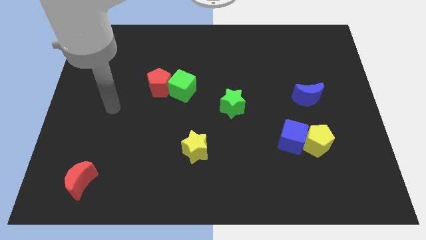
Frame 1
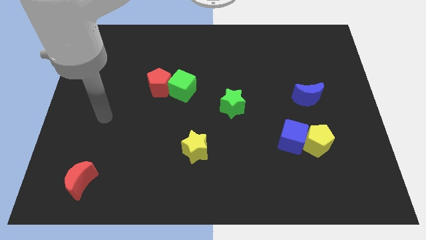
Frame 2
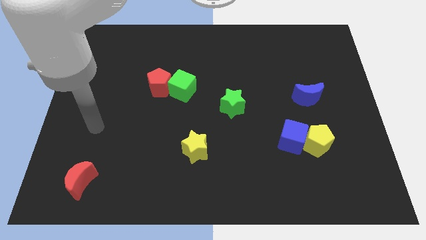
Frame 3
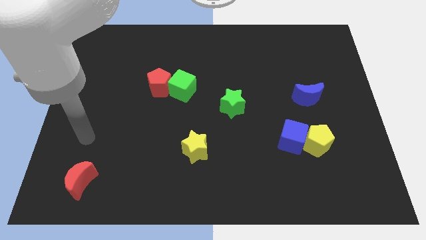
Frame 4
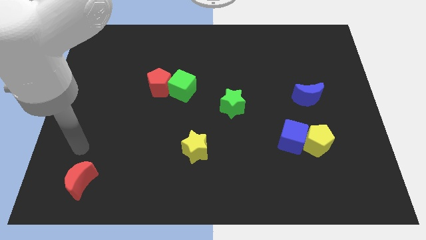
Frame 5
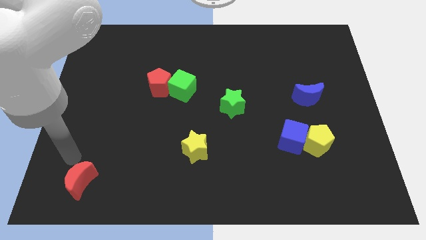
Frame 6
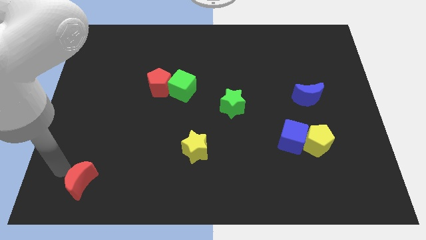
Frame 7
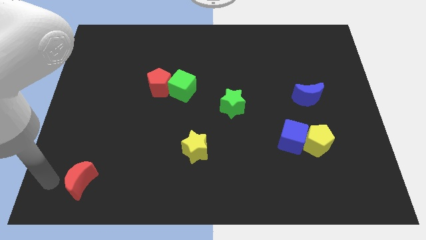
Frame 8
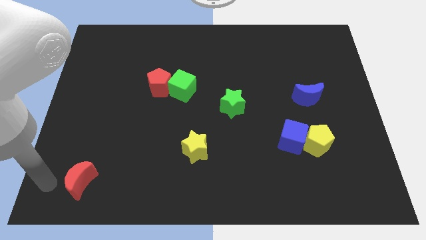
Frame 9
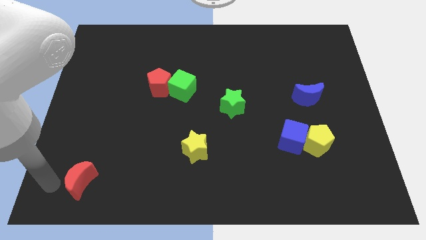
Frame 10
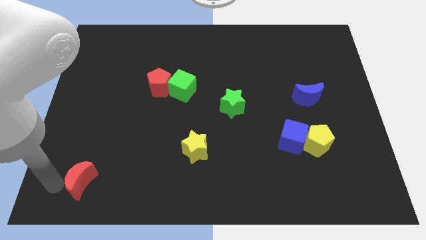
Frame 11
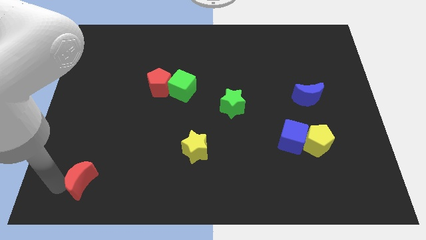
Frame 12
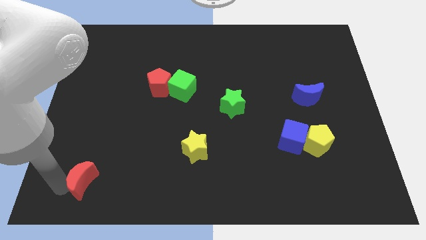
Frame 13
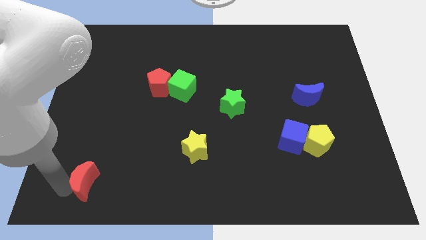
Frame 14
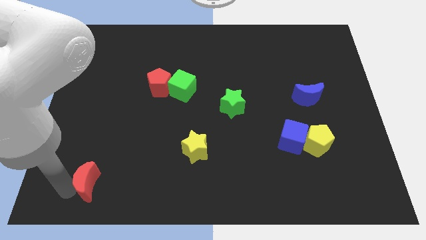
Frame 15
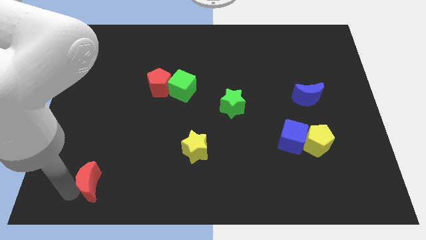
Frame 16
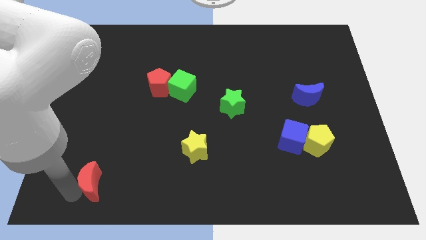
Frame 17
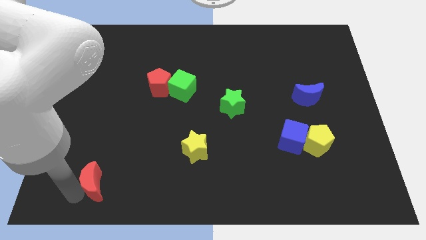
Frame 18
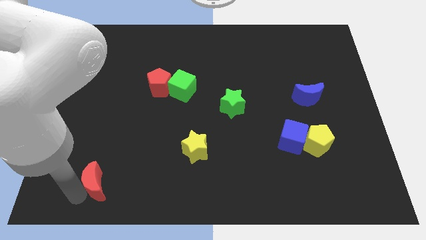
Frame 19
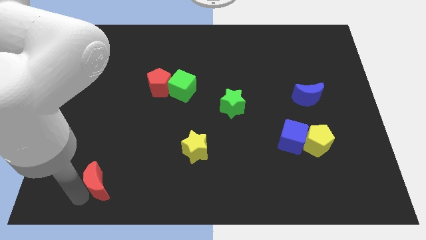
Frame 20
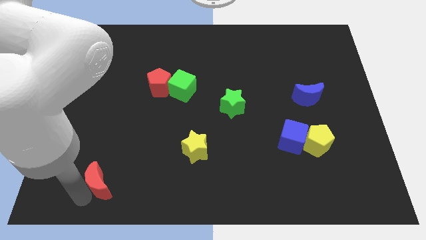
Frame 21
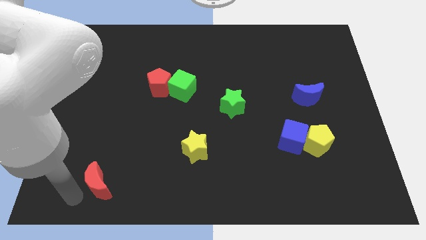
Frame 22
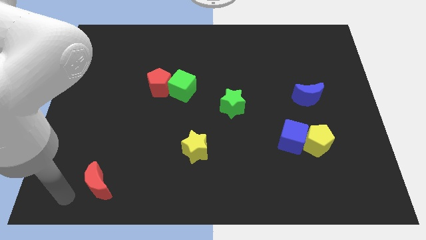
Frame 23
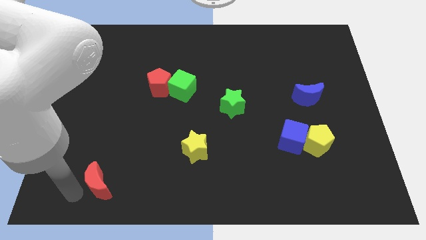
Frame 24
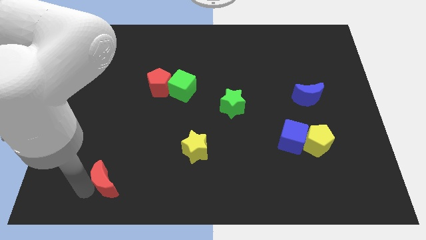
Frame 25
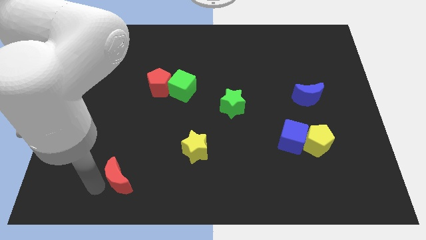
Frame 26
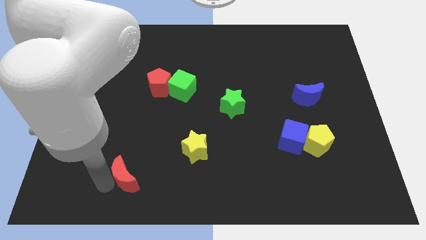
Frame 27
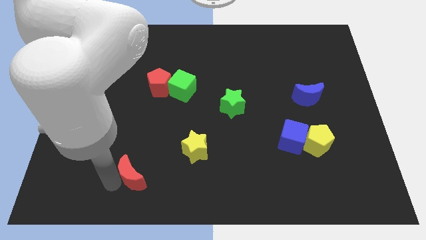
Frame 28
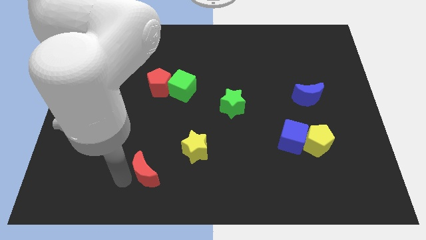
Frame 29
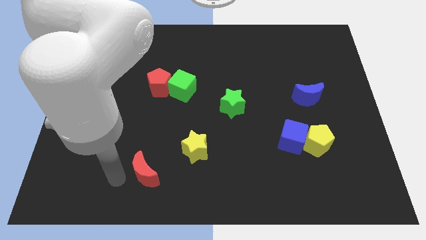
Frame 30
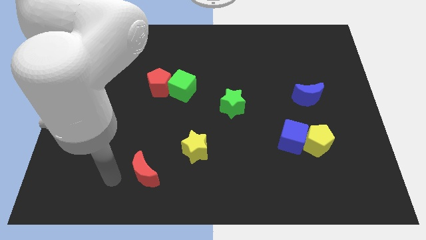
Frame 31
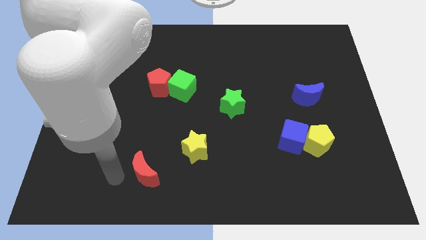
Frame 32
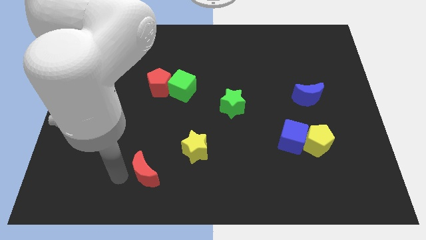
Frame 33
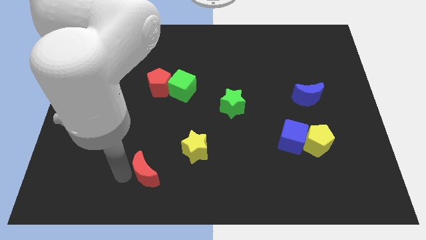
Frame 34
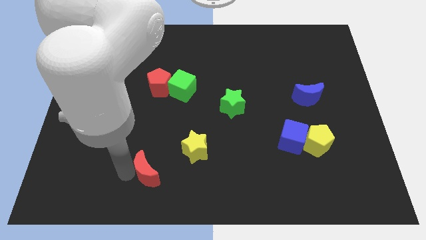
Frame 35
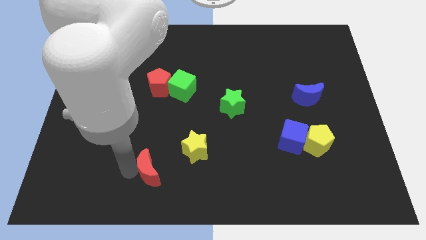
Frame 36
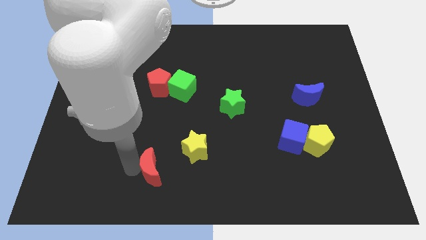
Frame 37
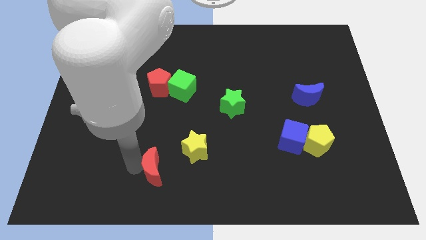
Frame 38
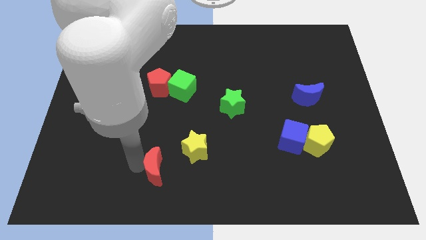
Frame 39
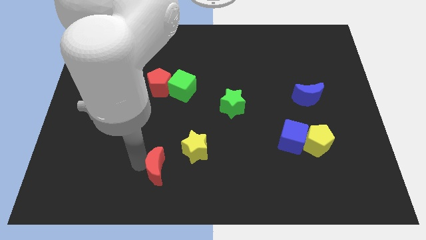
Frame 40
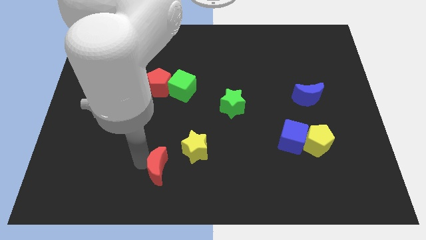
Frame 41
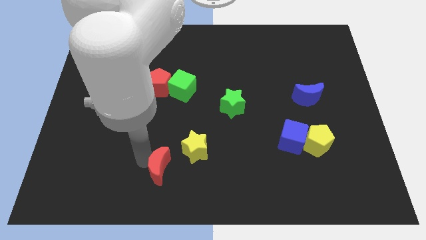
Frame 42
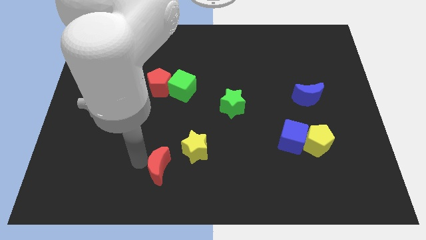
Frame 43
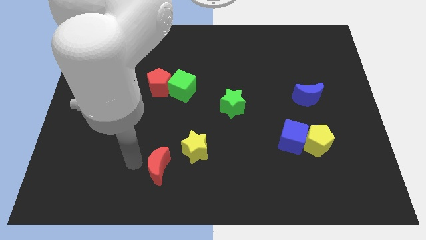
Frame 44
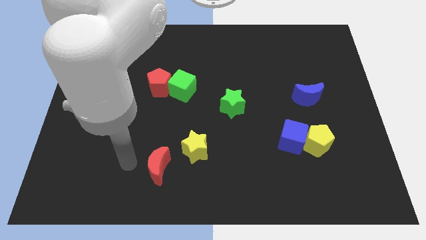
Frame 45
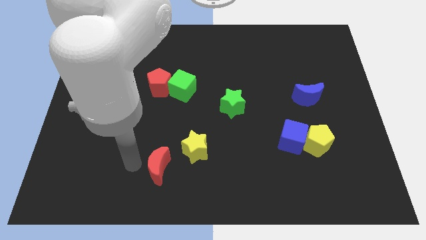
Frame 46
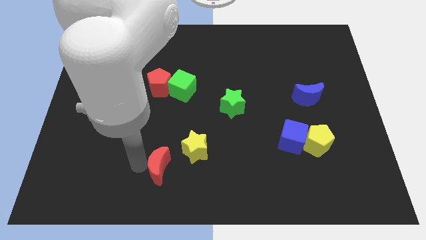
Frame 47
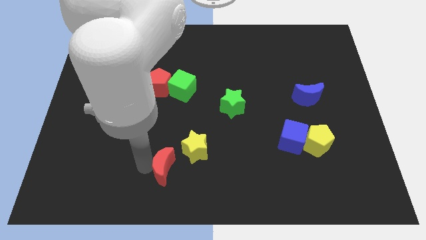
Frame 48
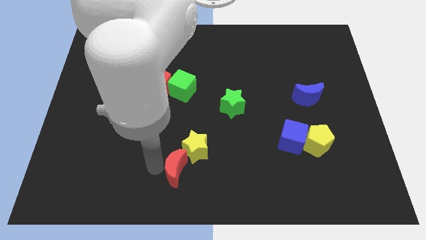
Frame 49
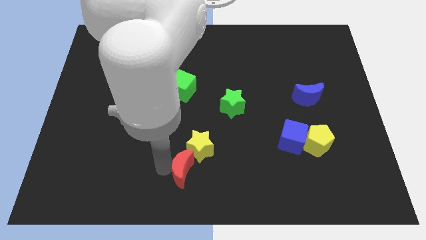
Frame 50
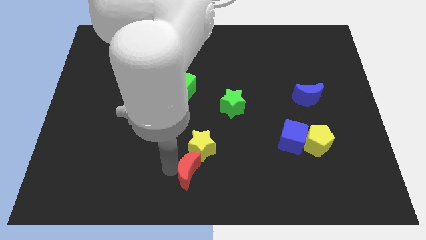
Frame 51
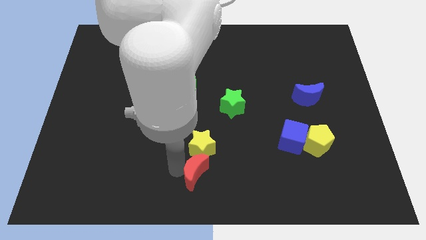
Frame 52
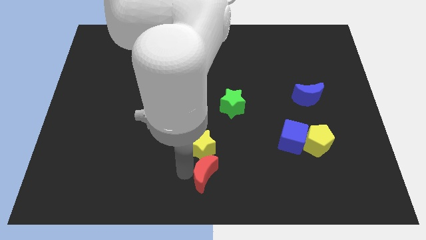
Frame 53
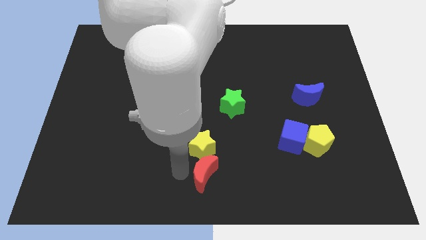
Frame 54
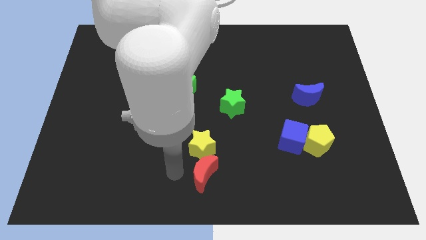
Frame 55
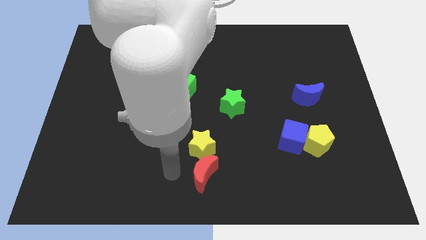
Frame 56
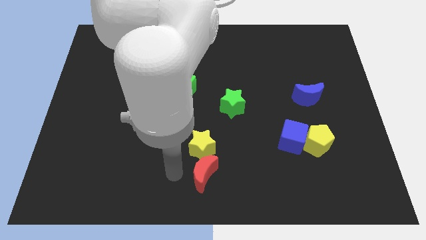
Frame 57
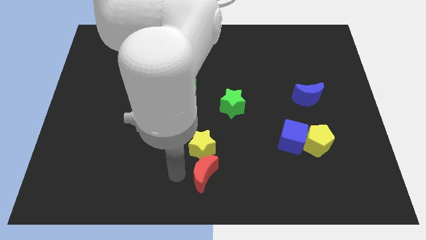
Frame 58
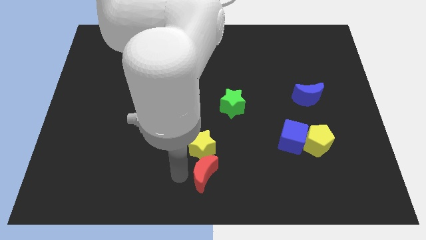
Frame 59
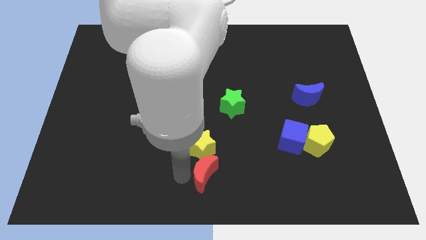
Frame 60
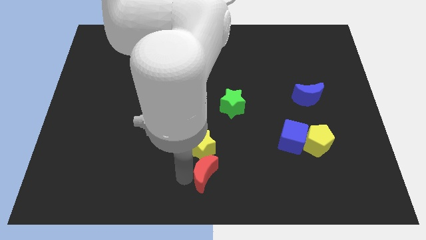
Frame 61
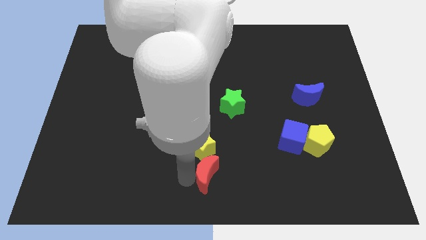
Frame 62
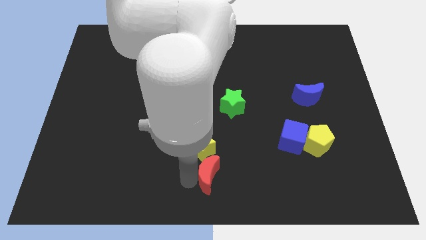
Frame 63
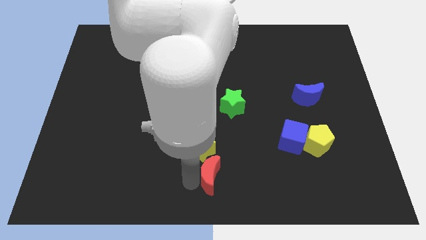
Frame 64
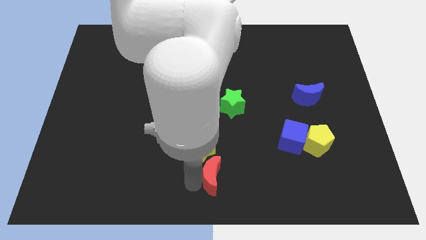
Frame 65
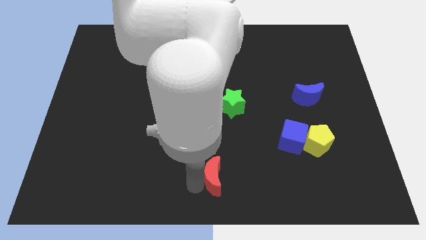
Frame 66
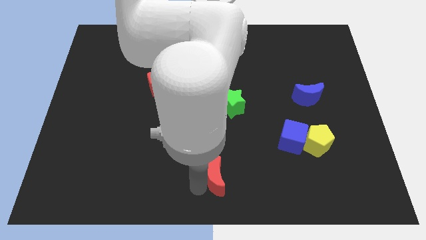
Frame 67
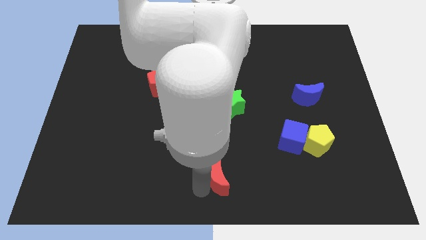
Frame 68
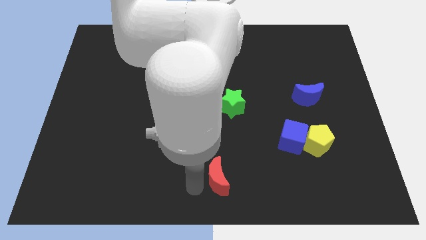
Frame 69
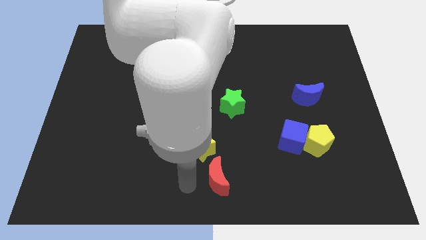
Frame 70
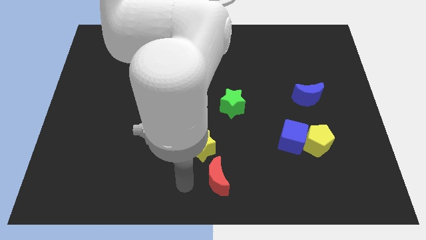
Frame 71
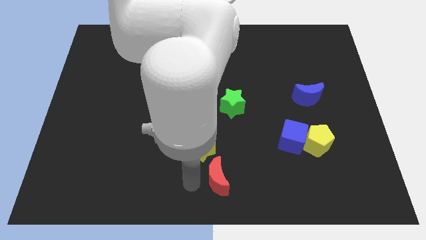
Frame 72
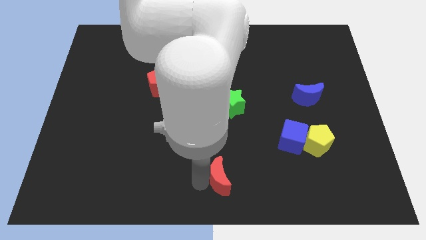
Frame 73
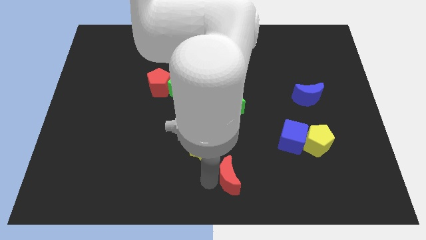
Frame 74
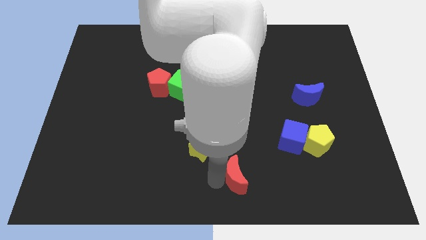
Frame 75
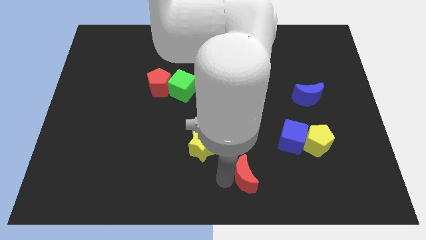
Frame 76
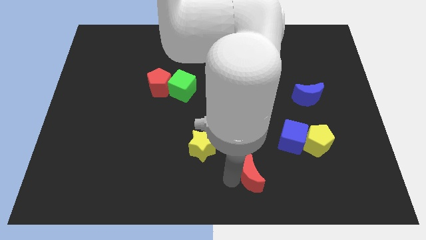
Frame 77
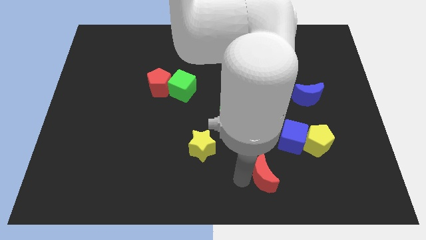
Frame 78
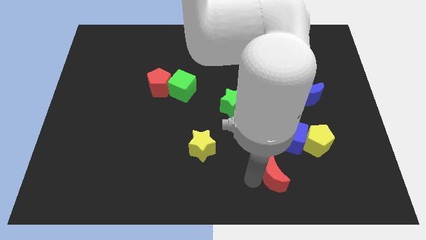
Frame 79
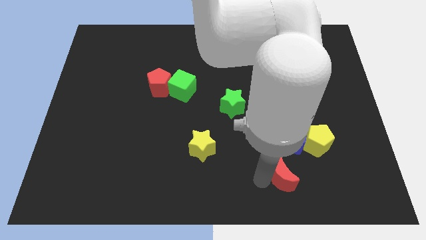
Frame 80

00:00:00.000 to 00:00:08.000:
put the red moon diagonally down and to the left of the yellow pentagon
